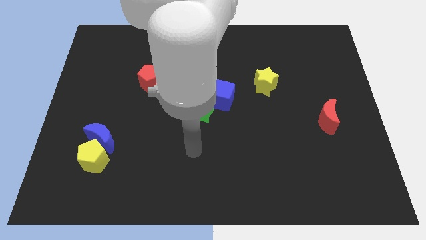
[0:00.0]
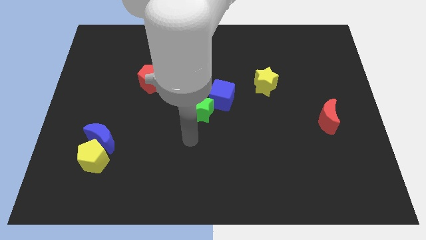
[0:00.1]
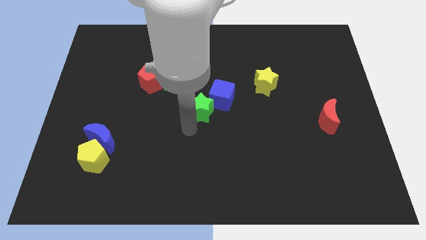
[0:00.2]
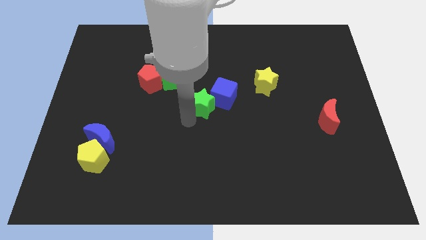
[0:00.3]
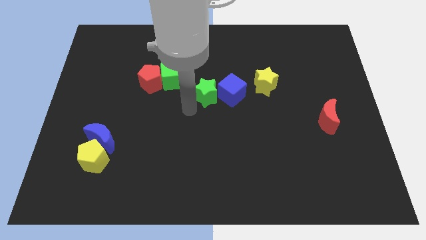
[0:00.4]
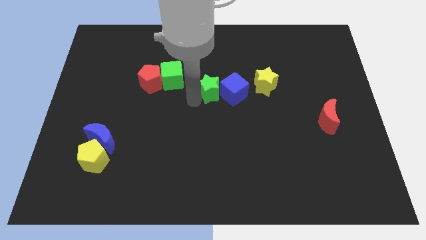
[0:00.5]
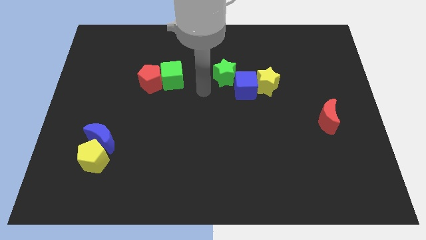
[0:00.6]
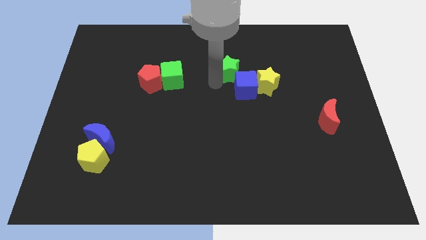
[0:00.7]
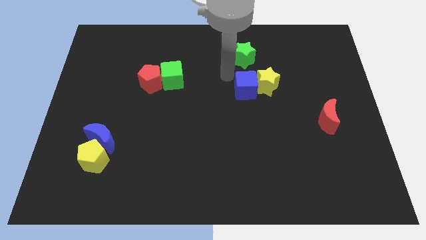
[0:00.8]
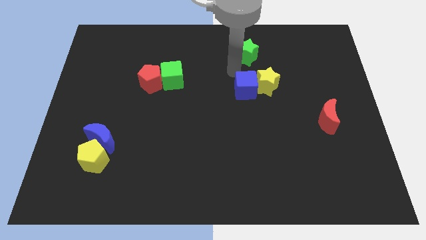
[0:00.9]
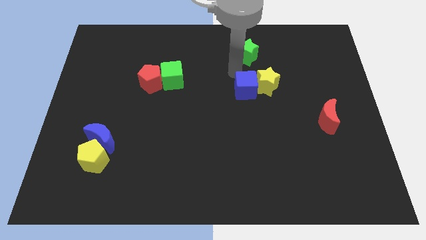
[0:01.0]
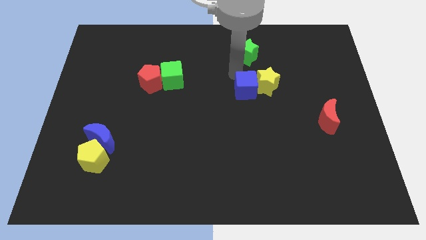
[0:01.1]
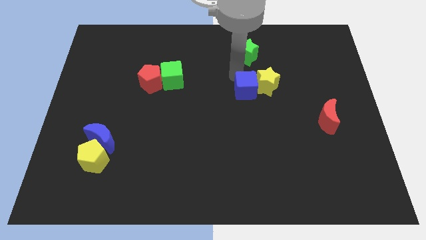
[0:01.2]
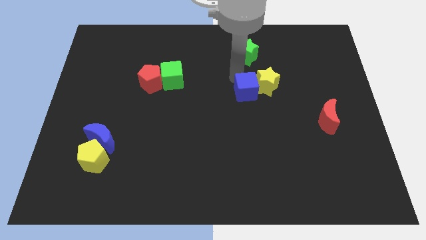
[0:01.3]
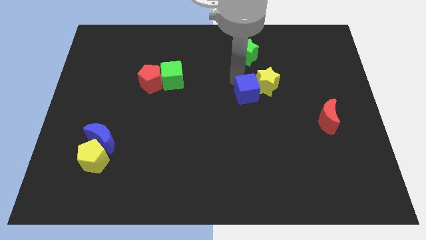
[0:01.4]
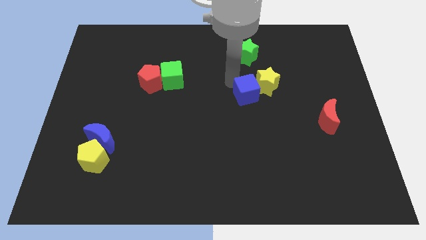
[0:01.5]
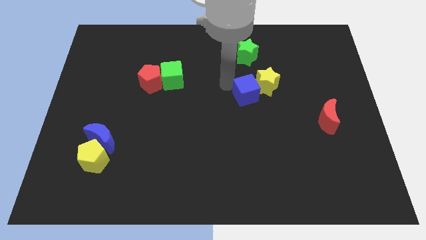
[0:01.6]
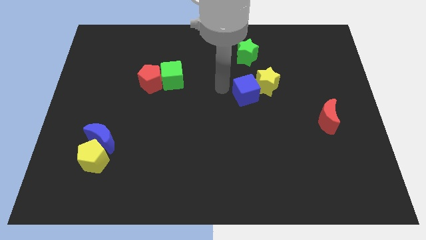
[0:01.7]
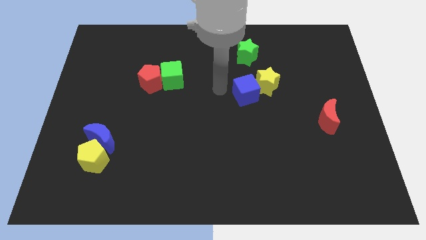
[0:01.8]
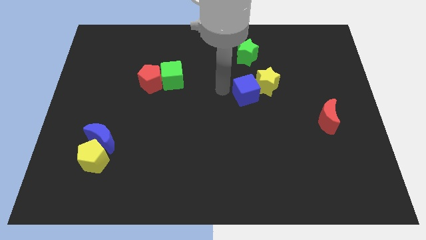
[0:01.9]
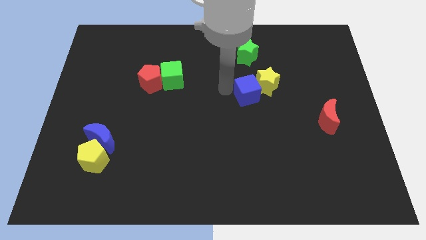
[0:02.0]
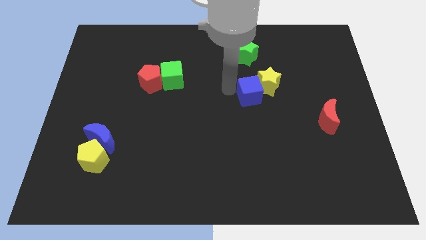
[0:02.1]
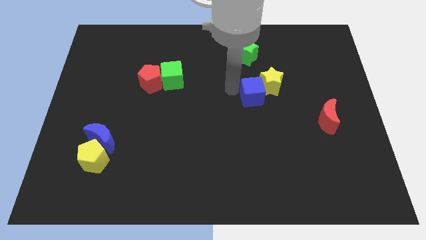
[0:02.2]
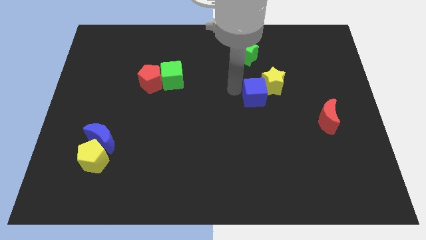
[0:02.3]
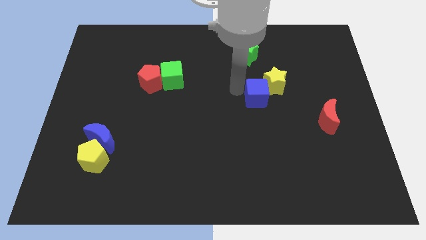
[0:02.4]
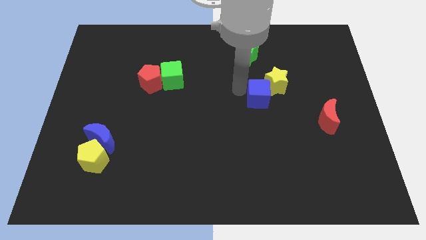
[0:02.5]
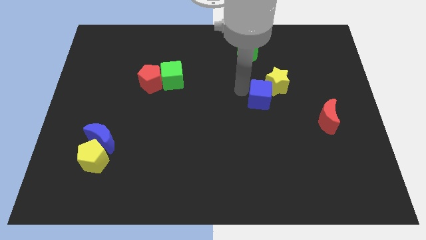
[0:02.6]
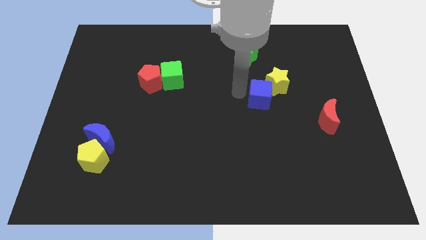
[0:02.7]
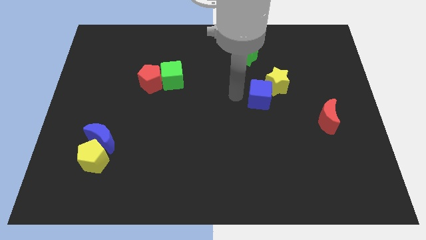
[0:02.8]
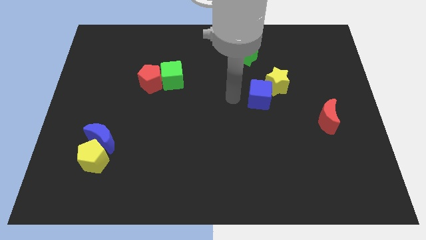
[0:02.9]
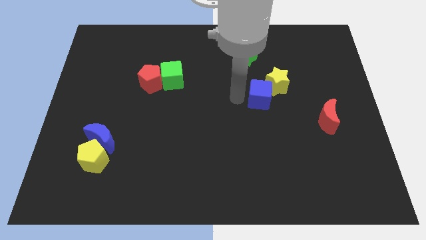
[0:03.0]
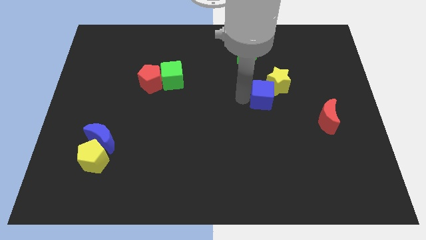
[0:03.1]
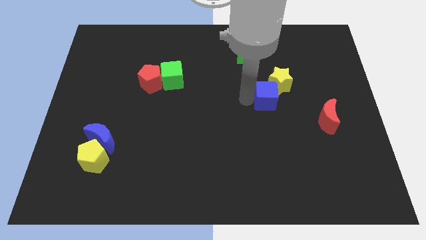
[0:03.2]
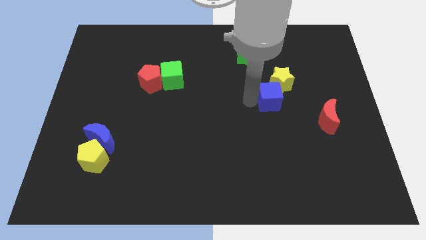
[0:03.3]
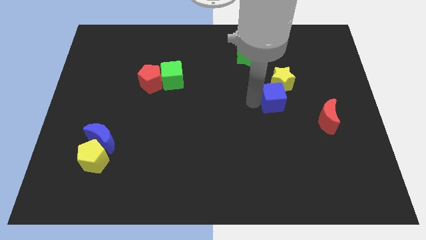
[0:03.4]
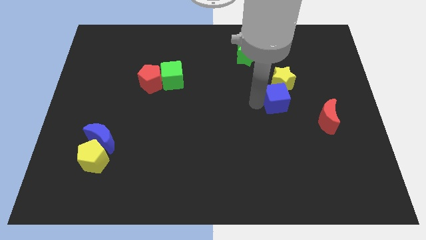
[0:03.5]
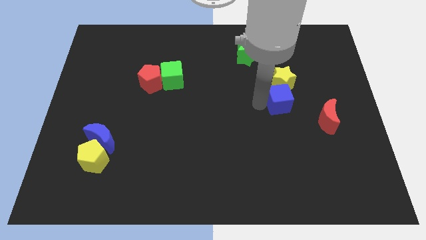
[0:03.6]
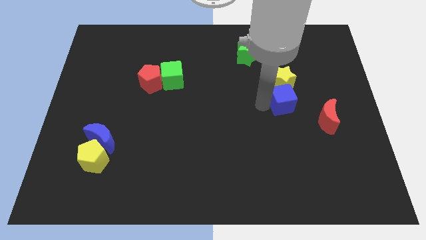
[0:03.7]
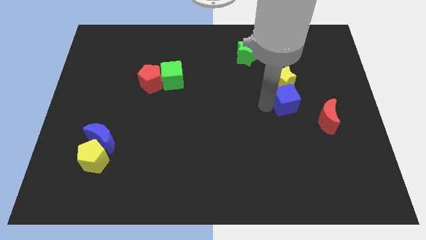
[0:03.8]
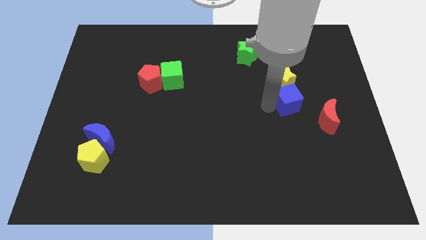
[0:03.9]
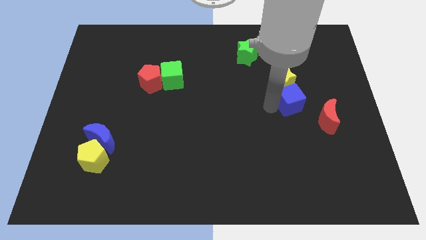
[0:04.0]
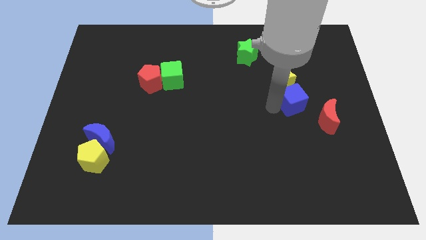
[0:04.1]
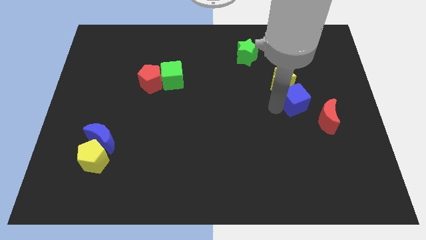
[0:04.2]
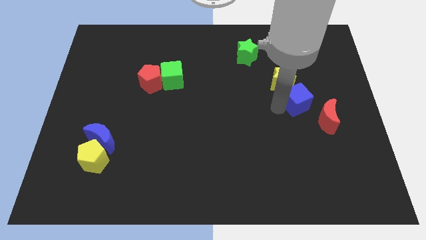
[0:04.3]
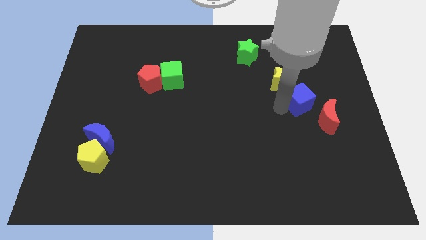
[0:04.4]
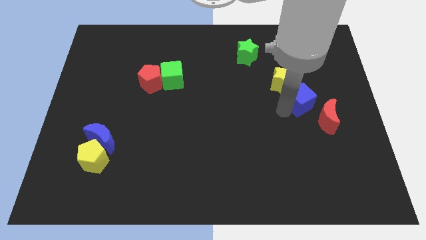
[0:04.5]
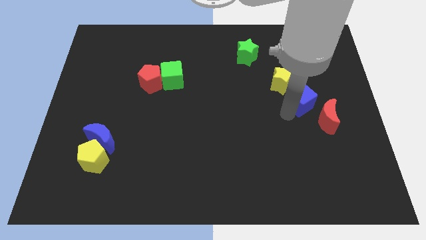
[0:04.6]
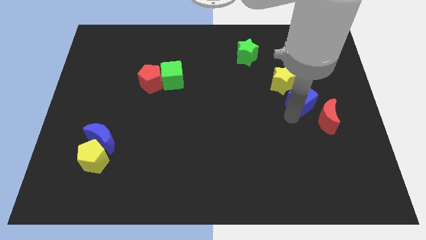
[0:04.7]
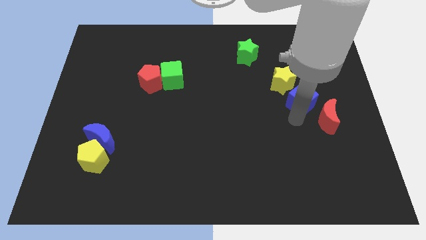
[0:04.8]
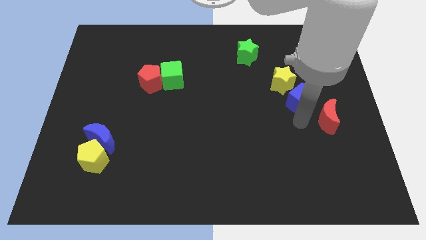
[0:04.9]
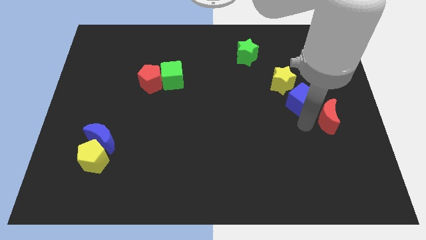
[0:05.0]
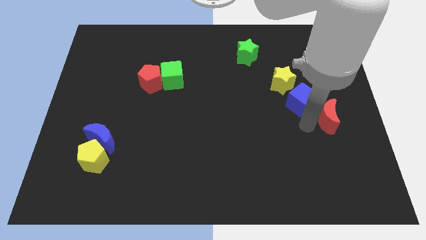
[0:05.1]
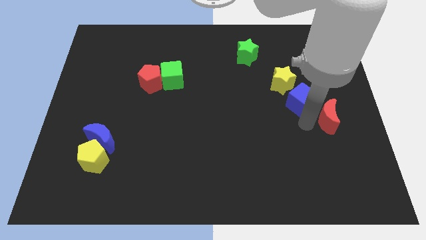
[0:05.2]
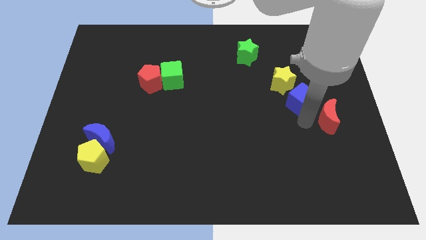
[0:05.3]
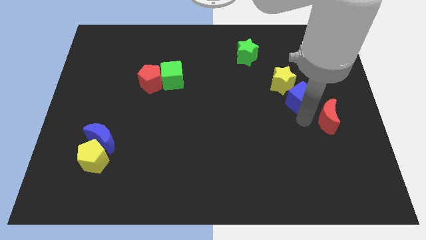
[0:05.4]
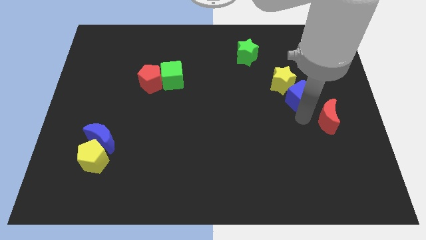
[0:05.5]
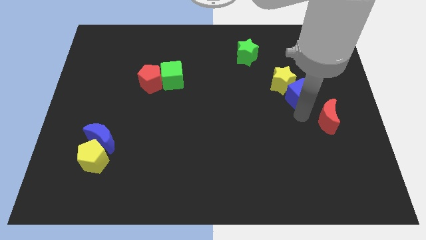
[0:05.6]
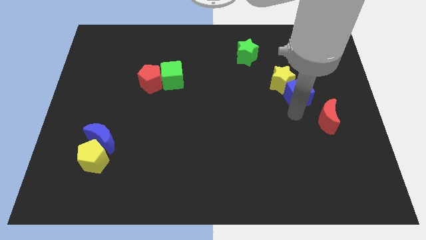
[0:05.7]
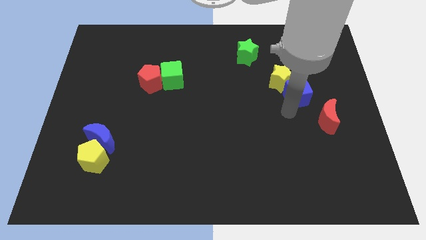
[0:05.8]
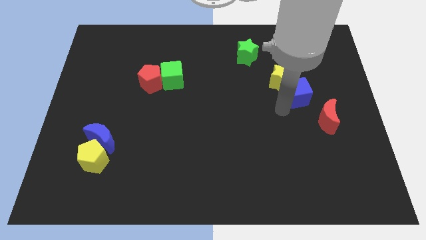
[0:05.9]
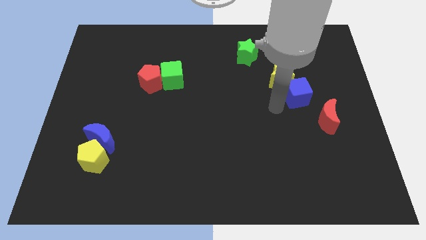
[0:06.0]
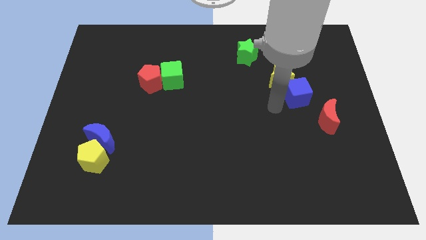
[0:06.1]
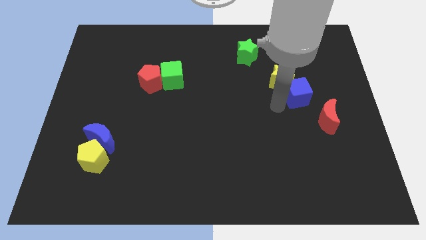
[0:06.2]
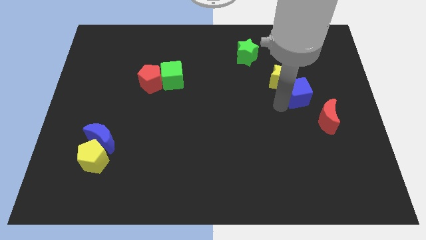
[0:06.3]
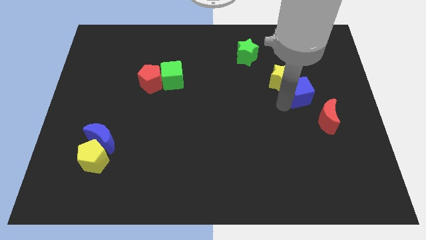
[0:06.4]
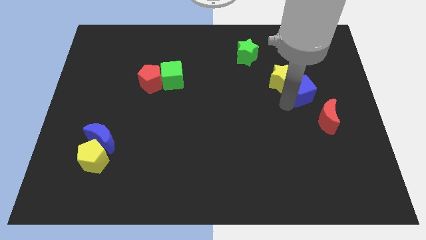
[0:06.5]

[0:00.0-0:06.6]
push the blue cube above the red moon
